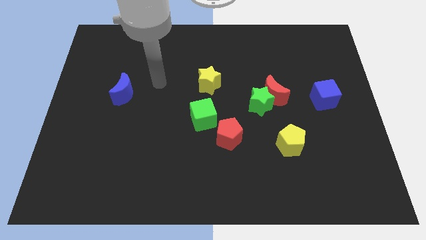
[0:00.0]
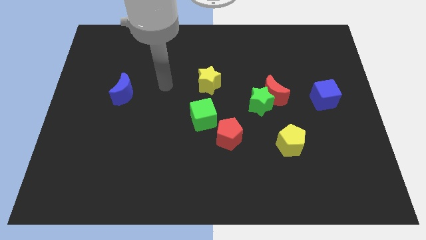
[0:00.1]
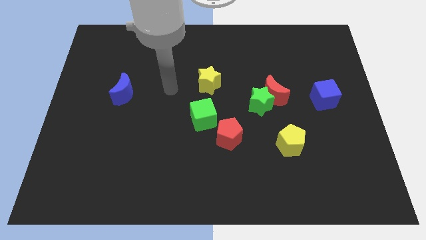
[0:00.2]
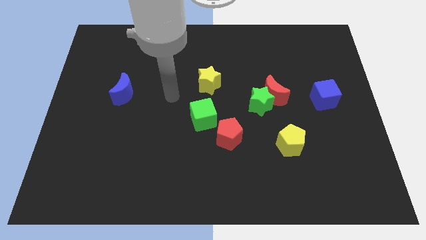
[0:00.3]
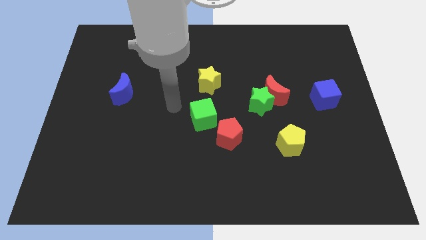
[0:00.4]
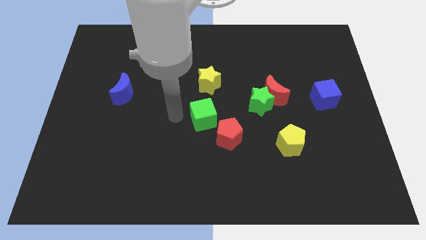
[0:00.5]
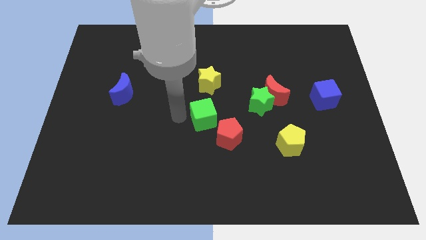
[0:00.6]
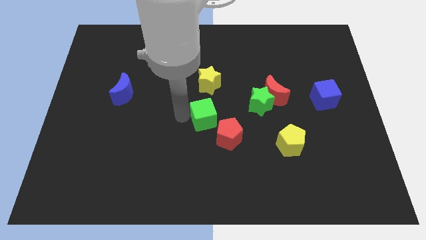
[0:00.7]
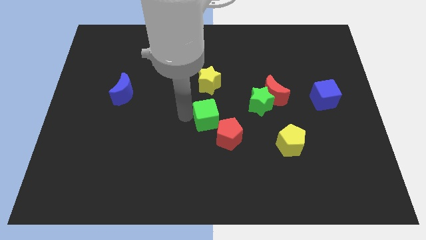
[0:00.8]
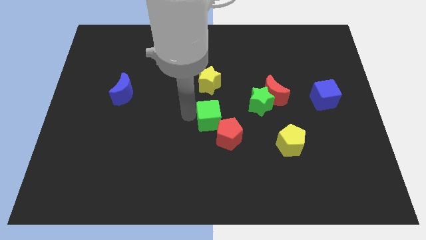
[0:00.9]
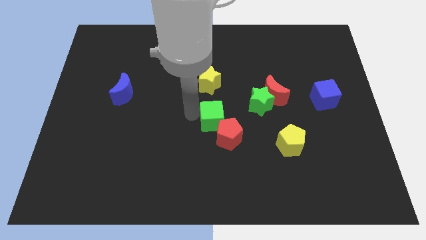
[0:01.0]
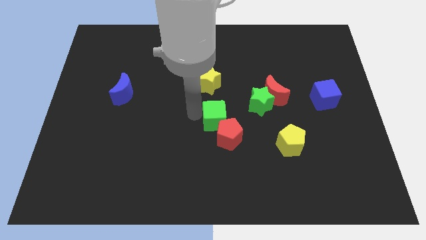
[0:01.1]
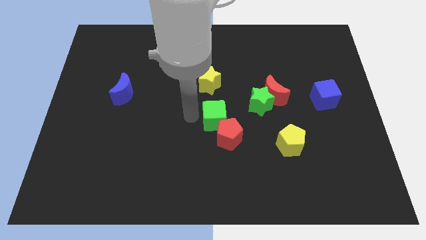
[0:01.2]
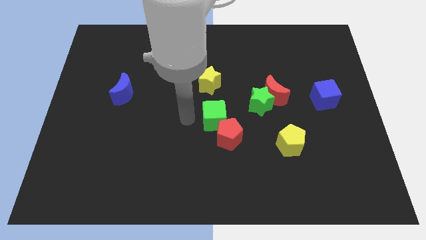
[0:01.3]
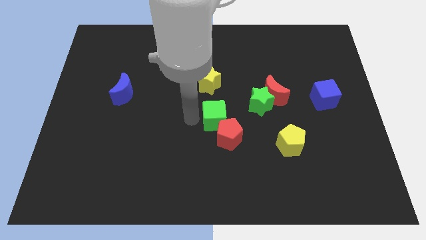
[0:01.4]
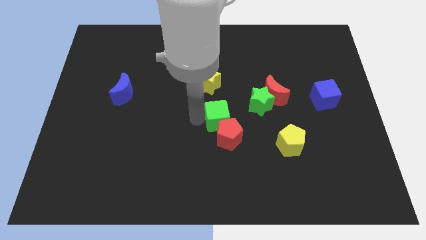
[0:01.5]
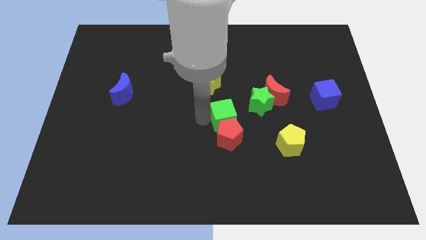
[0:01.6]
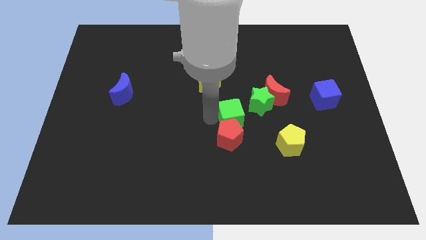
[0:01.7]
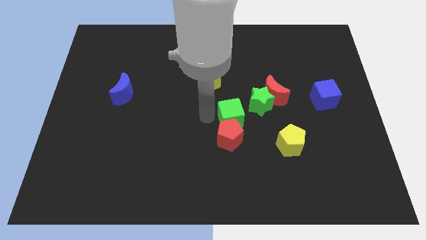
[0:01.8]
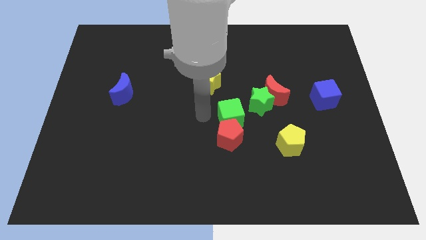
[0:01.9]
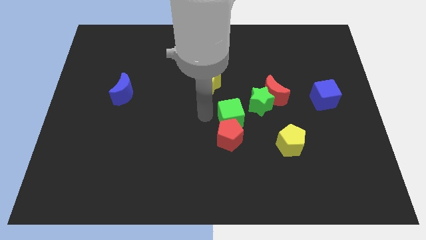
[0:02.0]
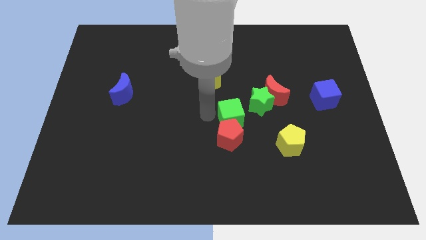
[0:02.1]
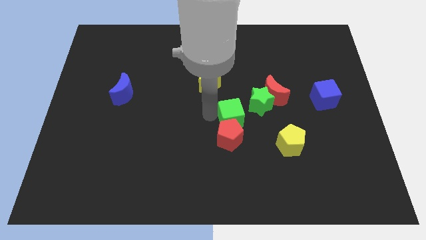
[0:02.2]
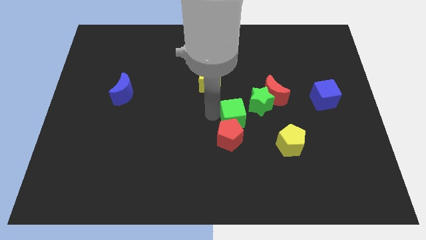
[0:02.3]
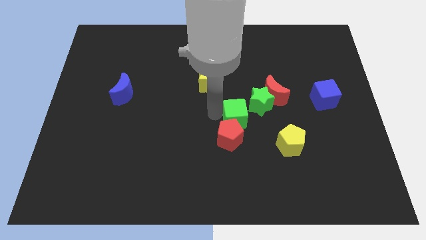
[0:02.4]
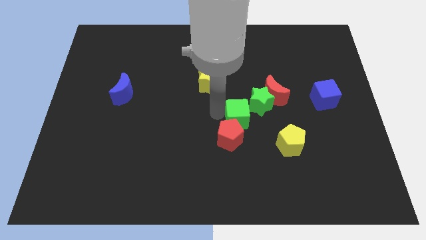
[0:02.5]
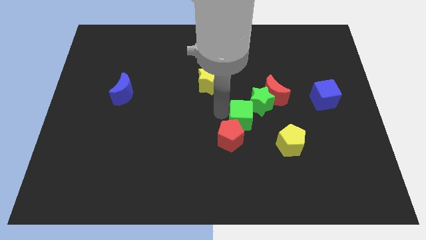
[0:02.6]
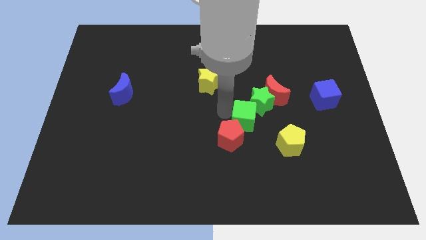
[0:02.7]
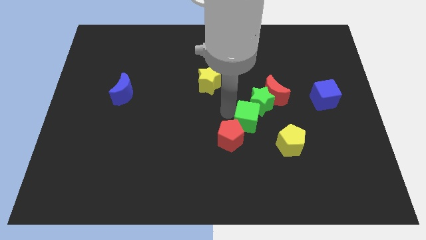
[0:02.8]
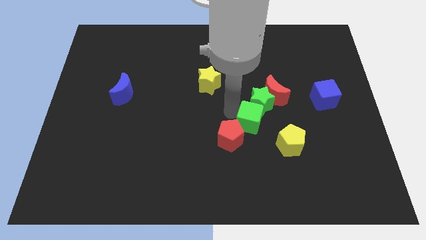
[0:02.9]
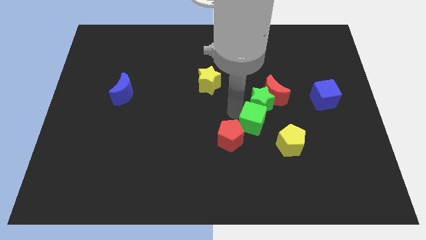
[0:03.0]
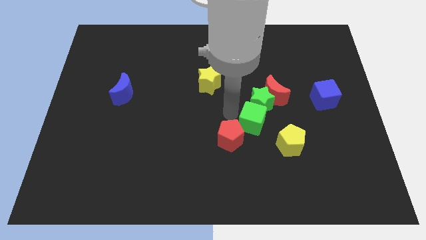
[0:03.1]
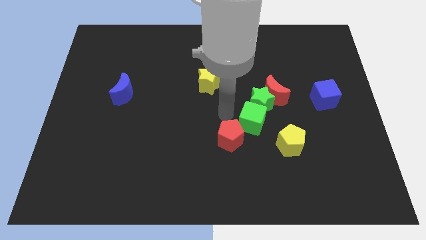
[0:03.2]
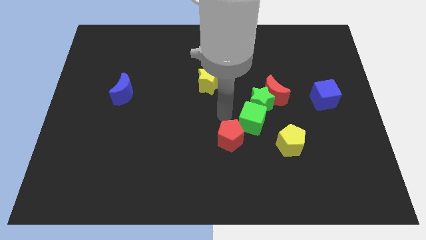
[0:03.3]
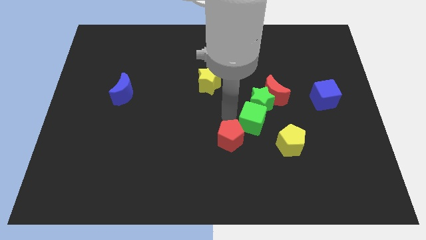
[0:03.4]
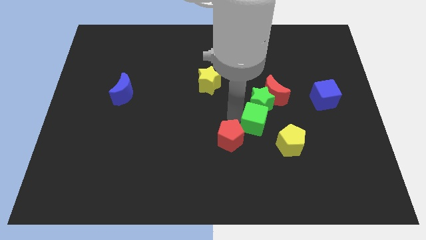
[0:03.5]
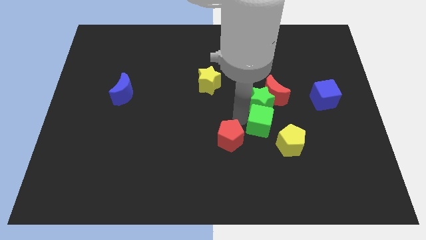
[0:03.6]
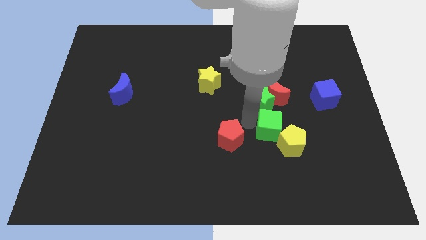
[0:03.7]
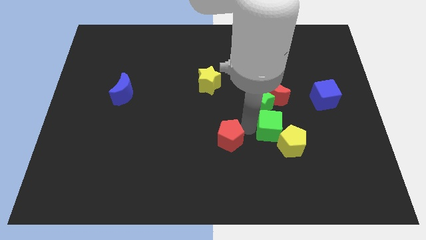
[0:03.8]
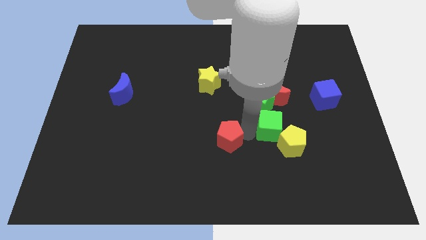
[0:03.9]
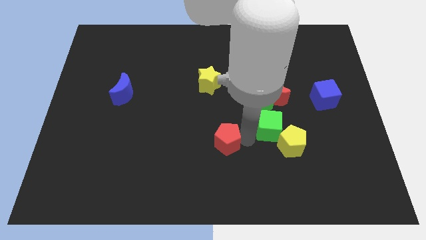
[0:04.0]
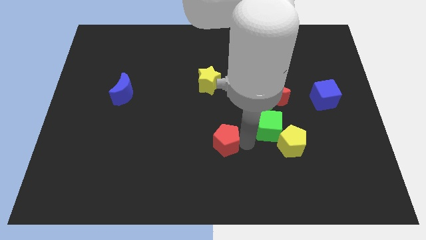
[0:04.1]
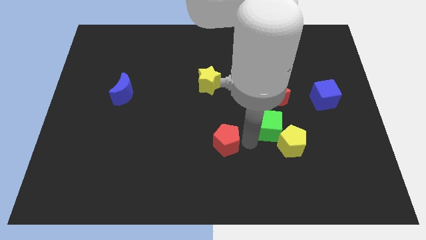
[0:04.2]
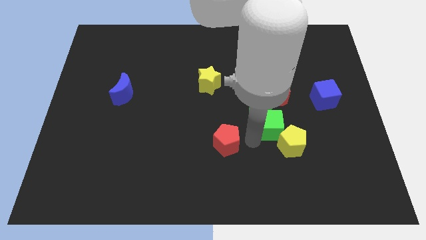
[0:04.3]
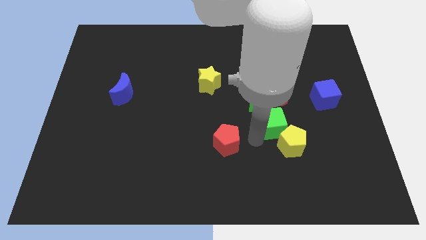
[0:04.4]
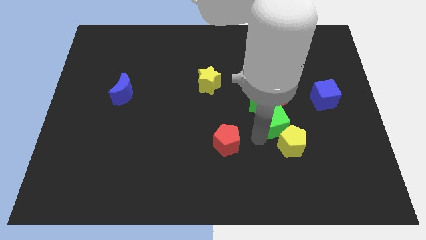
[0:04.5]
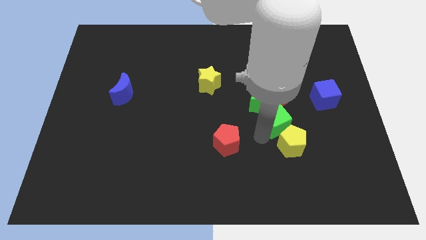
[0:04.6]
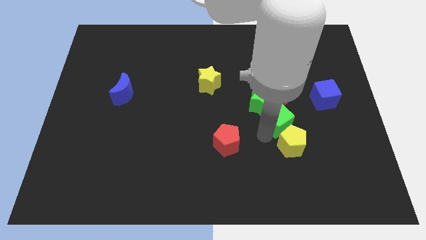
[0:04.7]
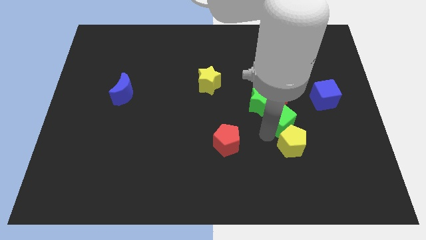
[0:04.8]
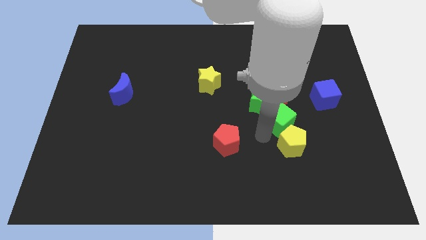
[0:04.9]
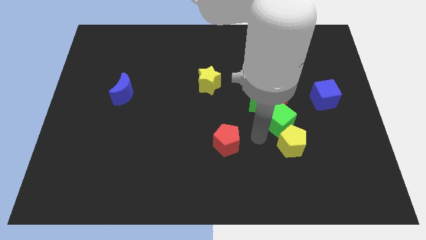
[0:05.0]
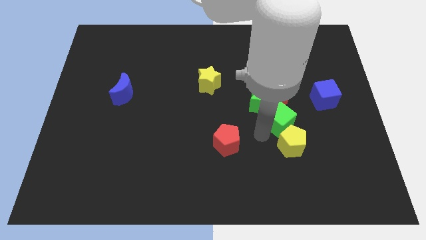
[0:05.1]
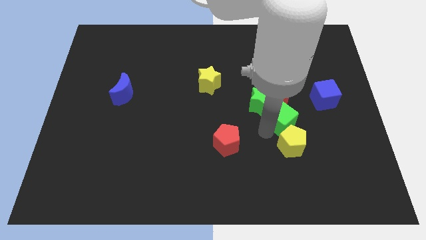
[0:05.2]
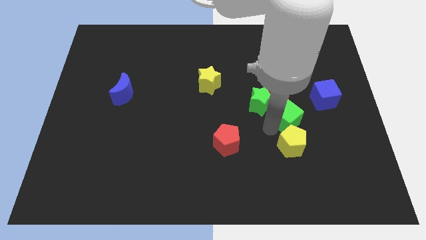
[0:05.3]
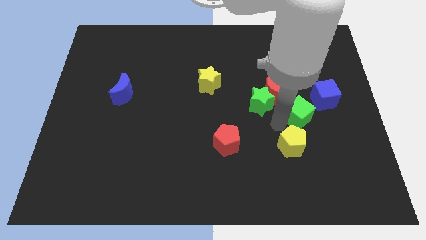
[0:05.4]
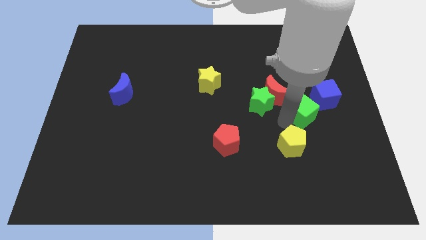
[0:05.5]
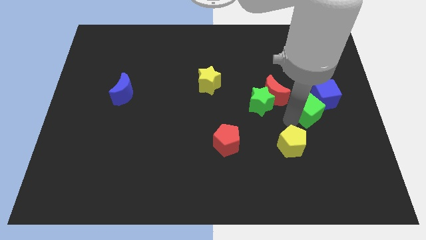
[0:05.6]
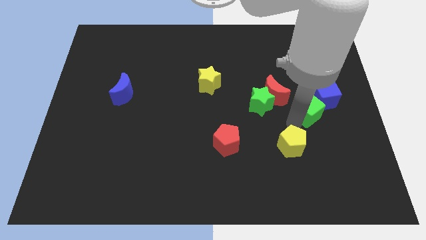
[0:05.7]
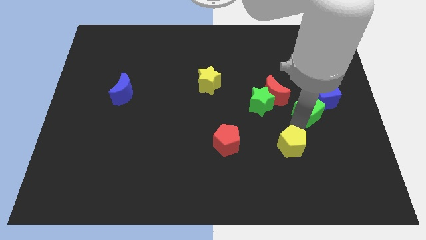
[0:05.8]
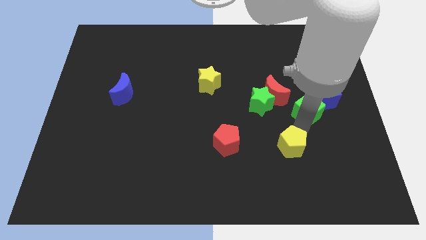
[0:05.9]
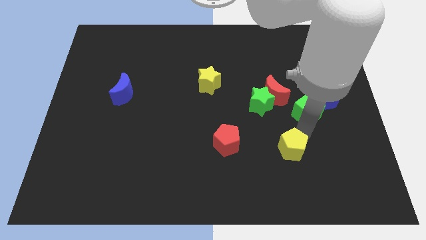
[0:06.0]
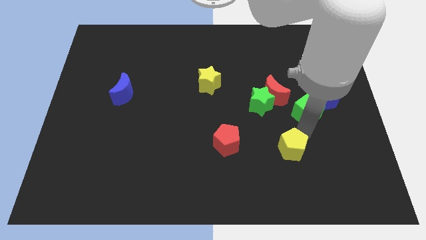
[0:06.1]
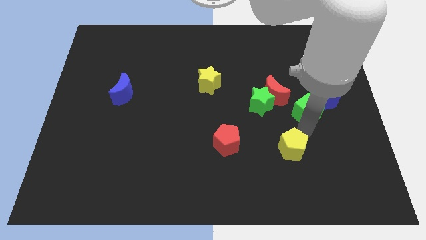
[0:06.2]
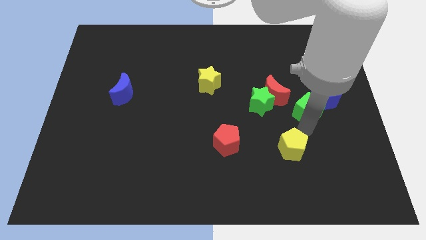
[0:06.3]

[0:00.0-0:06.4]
put the green cube to the blue cube

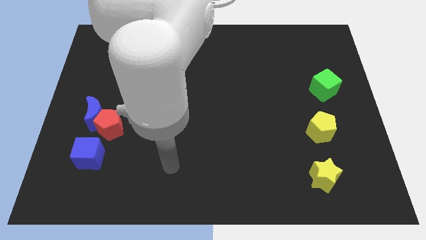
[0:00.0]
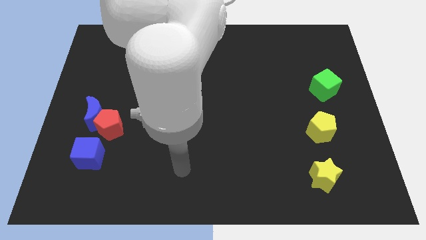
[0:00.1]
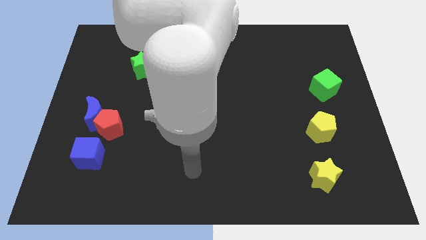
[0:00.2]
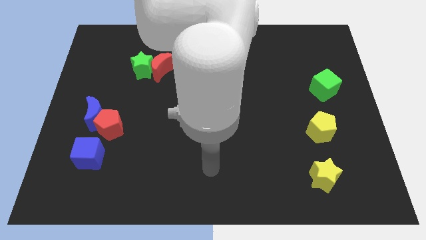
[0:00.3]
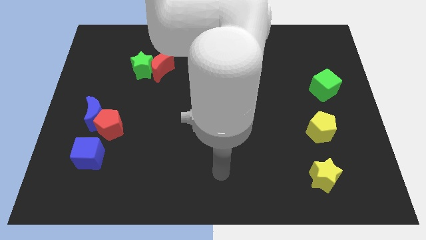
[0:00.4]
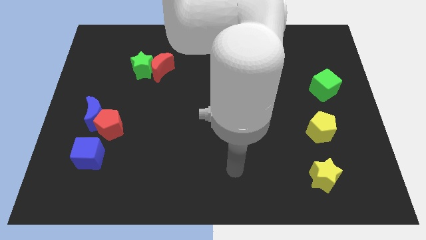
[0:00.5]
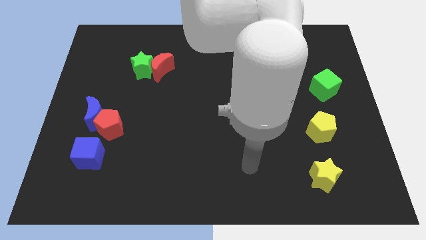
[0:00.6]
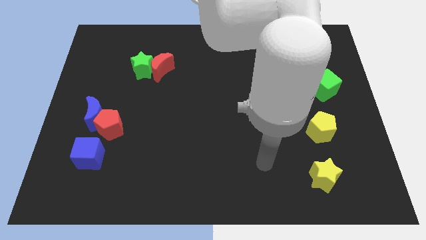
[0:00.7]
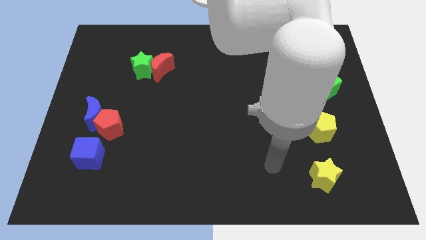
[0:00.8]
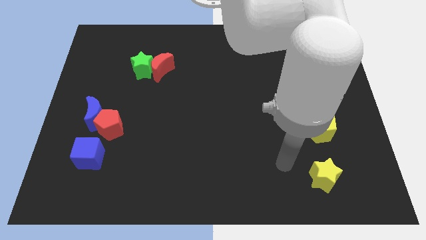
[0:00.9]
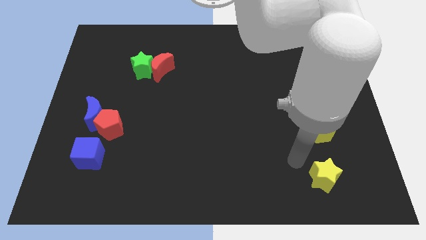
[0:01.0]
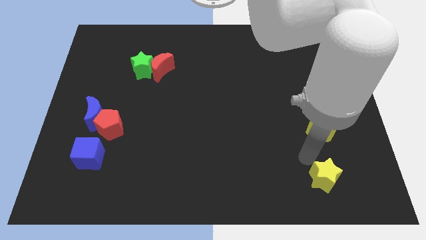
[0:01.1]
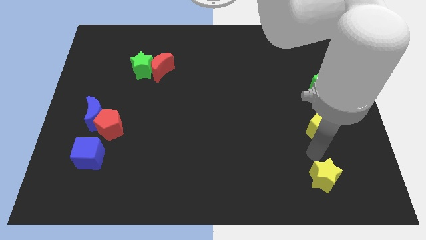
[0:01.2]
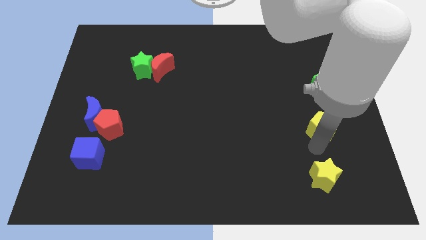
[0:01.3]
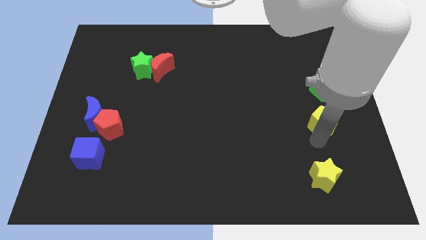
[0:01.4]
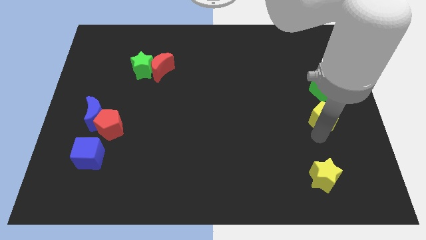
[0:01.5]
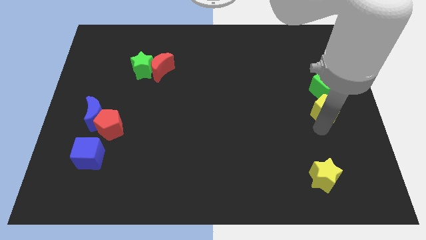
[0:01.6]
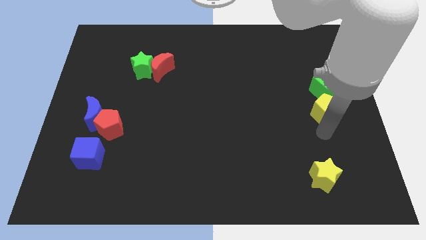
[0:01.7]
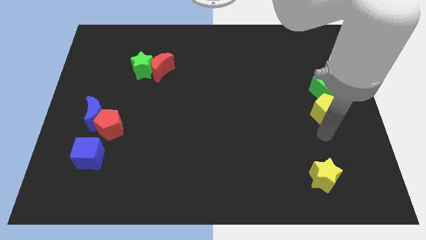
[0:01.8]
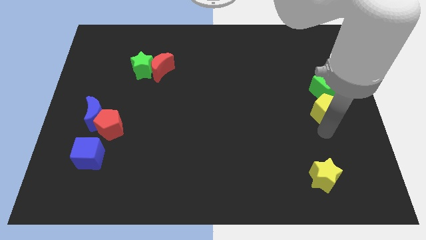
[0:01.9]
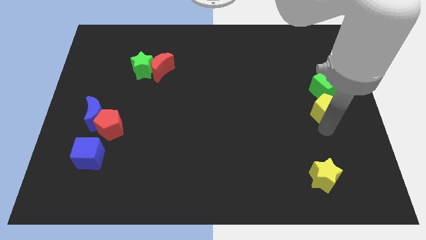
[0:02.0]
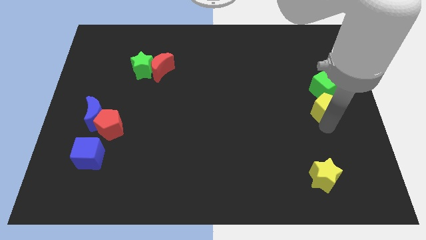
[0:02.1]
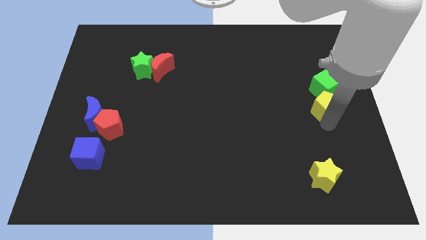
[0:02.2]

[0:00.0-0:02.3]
move the yellow pentagon next to the green cube
